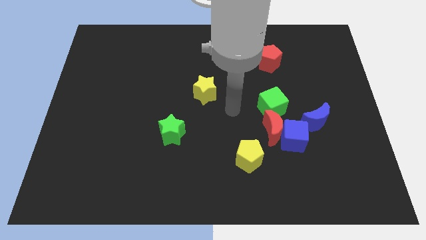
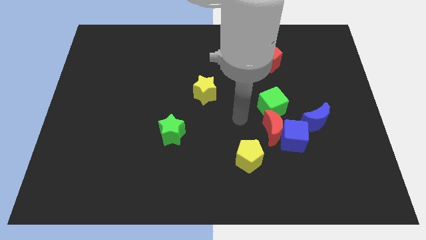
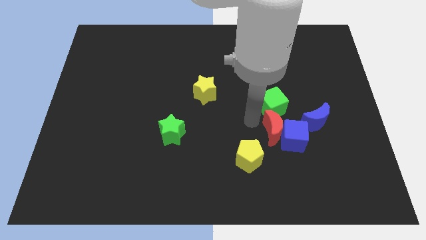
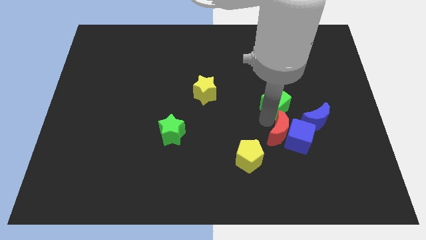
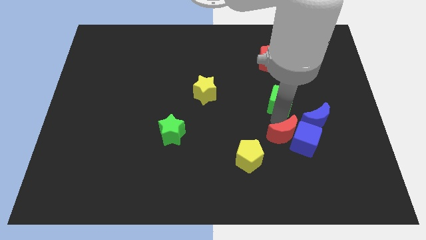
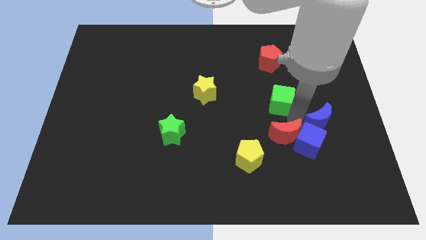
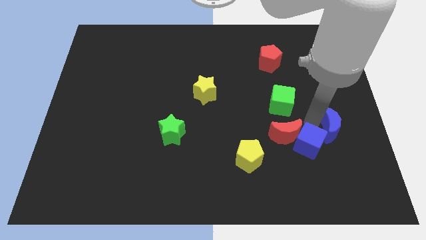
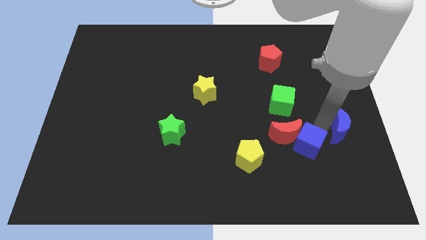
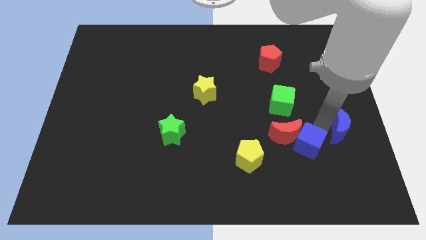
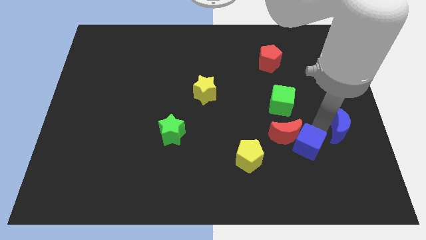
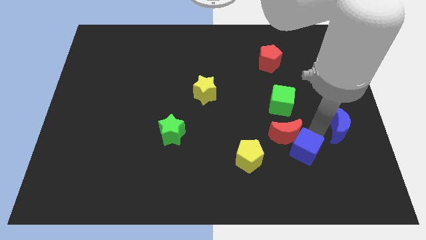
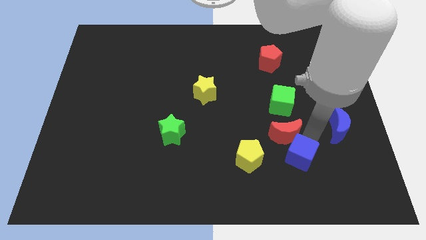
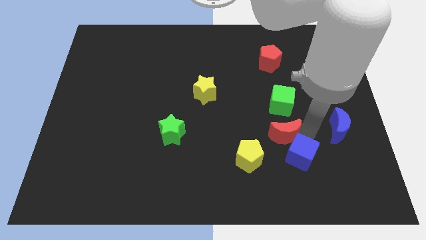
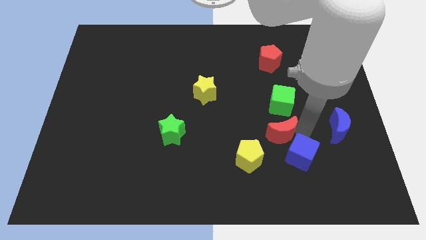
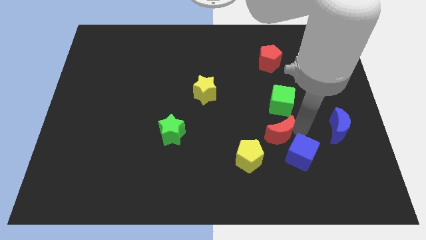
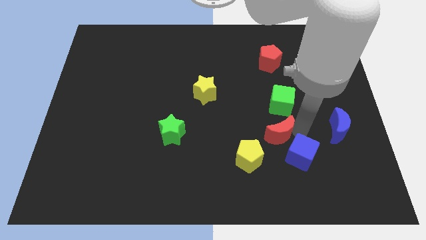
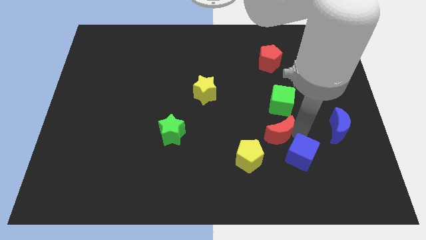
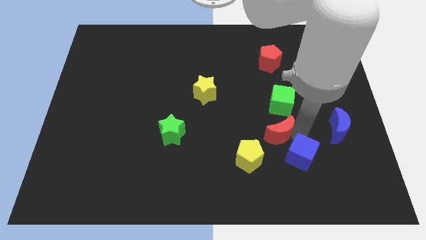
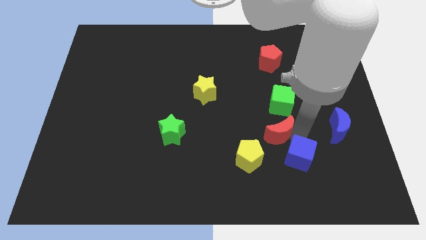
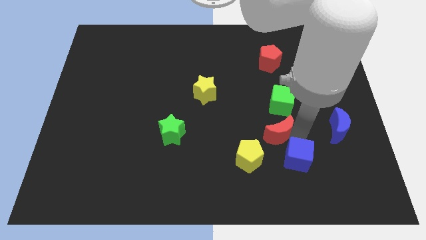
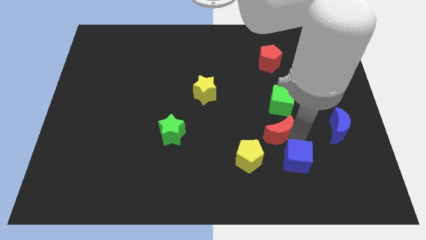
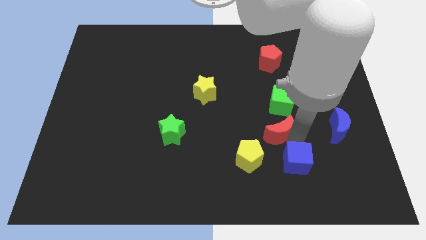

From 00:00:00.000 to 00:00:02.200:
pull the blue cube apart from the red moon, blue moon, and green cube

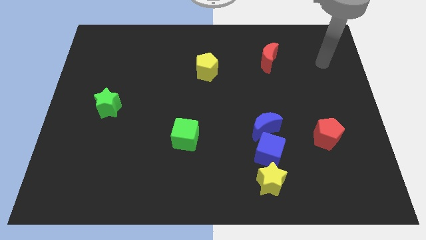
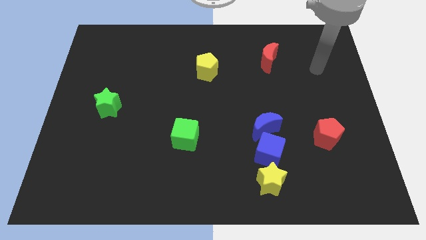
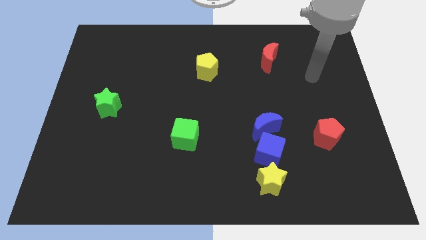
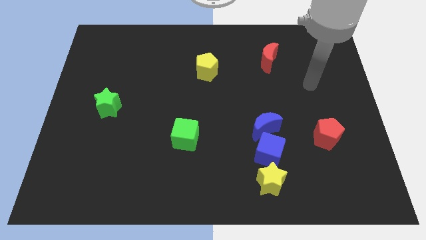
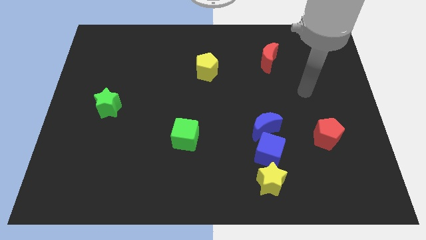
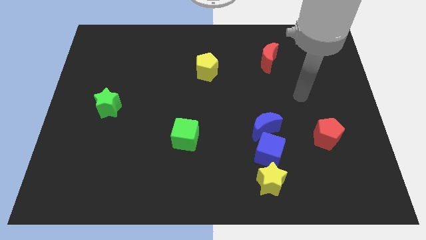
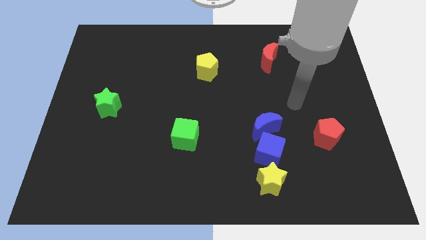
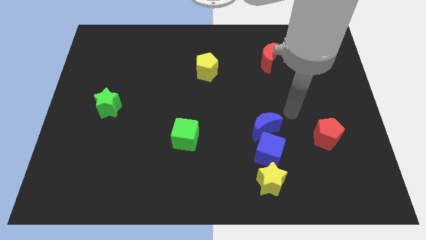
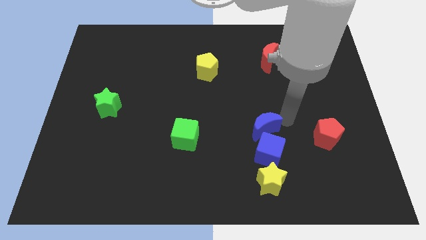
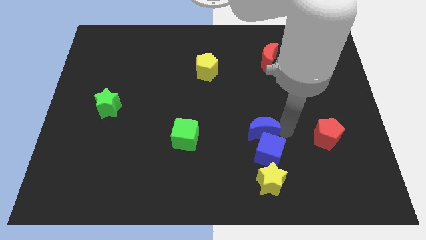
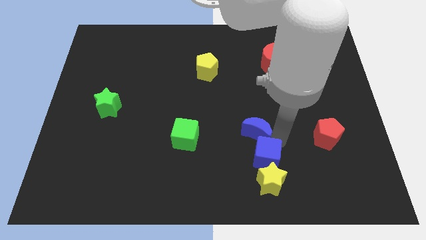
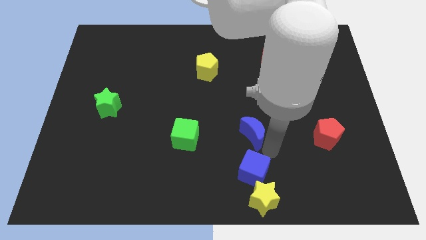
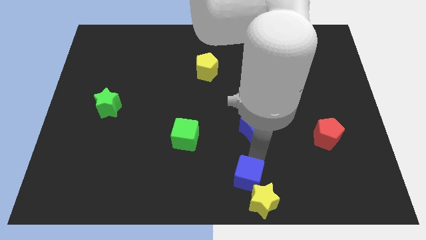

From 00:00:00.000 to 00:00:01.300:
separate the blue moon from the blue cube

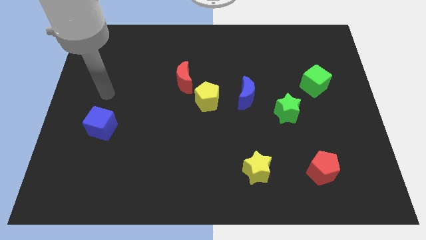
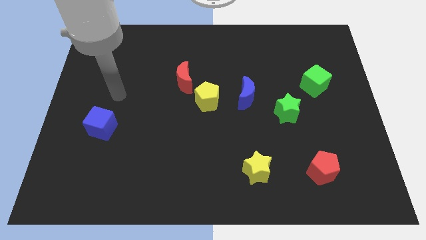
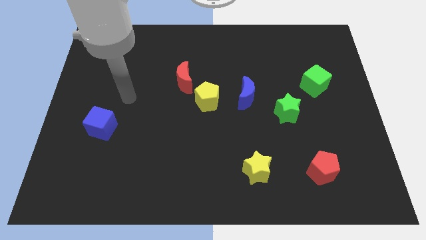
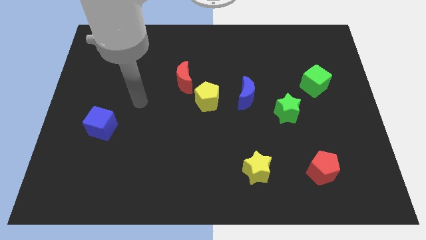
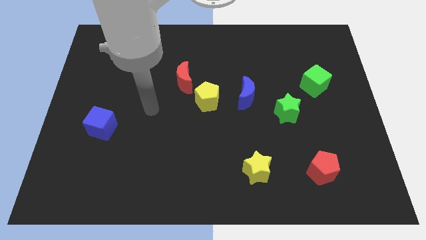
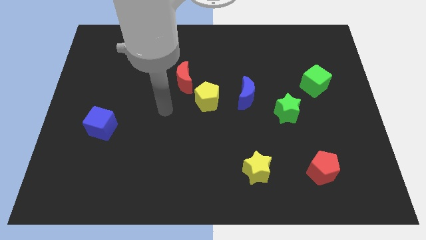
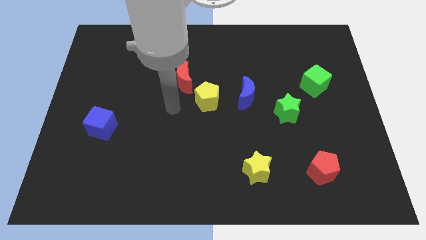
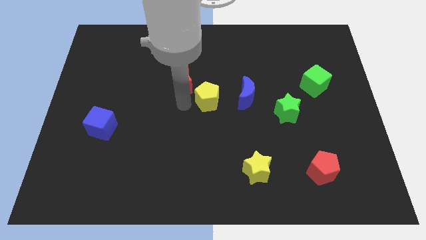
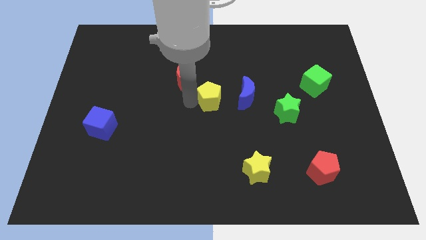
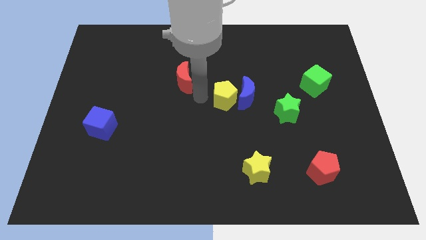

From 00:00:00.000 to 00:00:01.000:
separate the red moon from the yellow pentagon

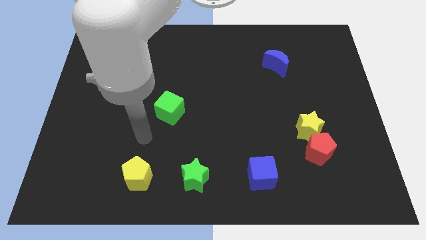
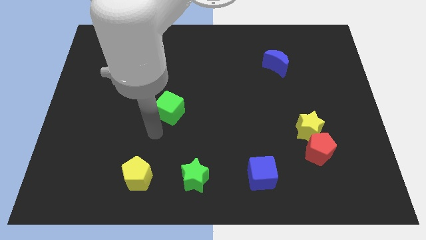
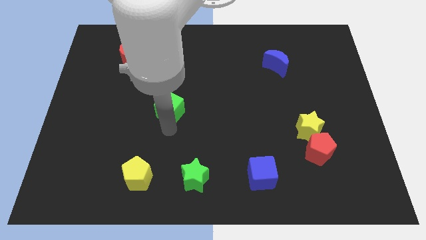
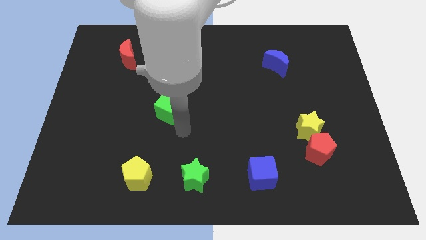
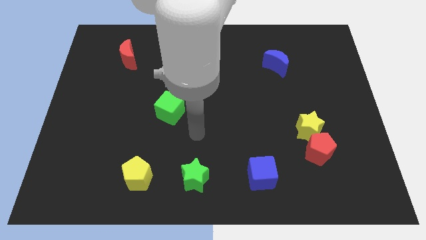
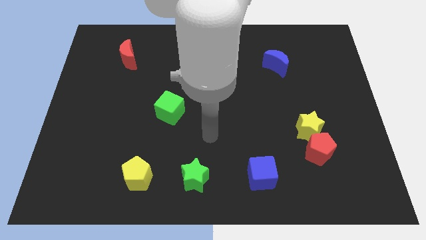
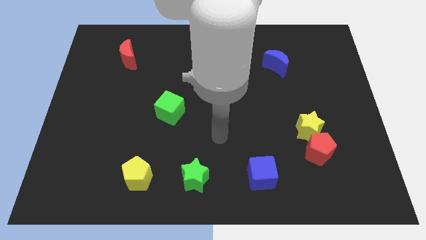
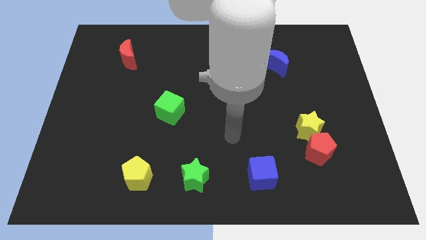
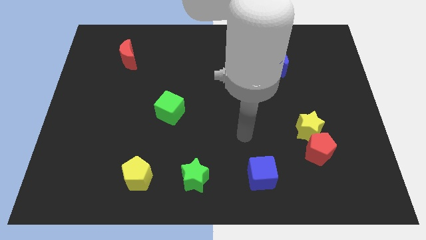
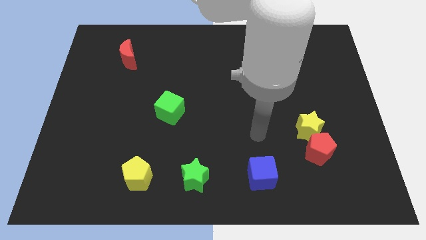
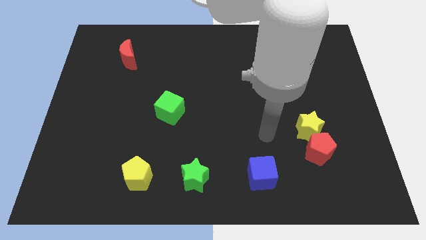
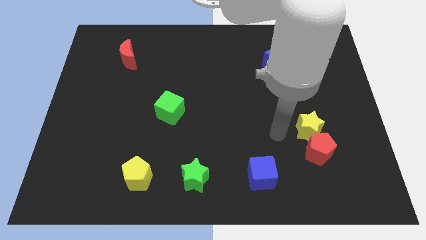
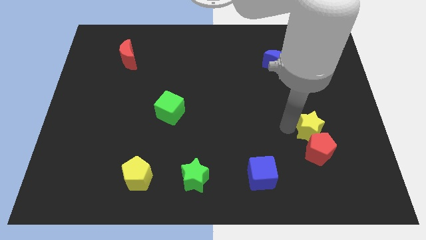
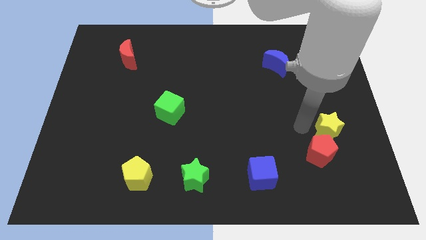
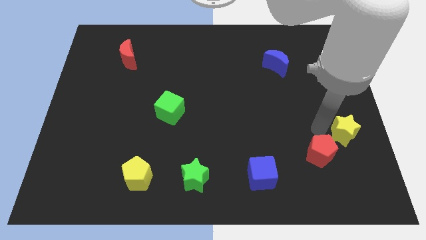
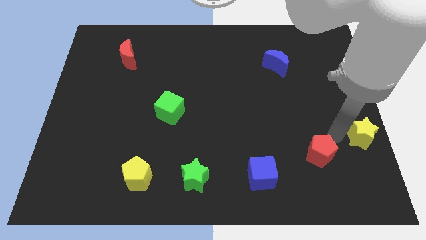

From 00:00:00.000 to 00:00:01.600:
pull the red pentagon apart from the yellow star

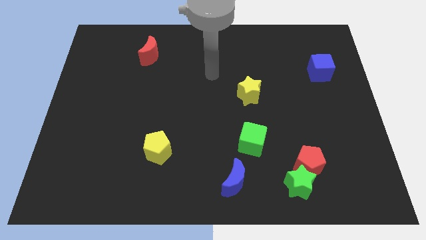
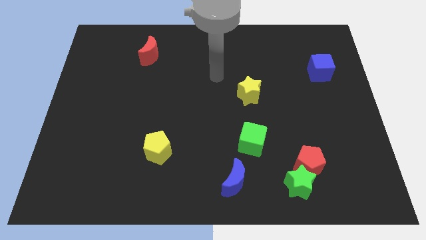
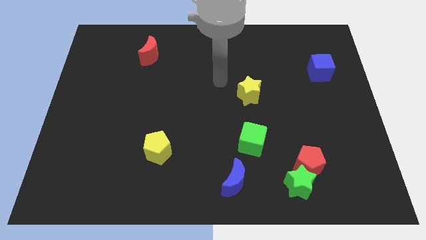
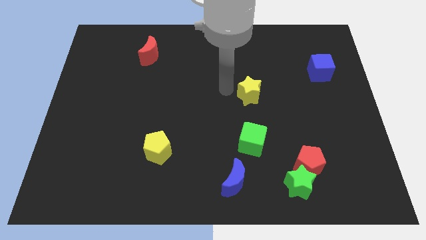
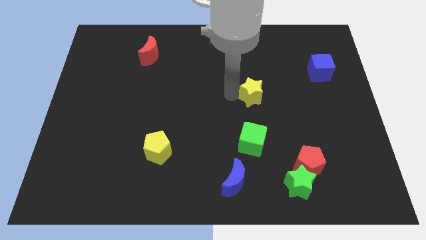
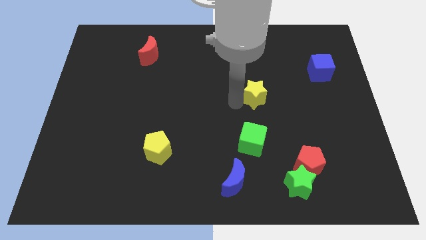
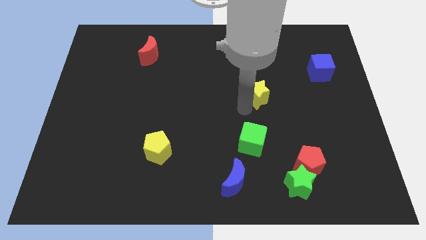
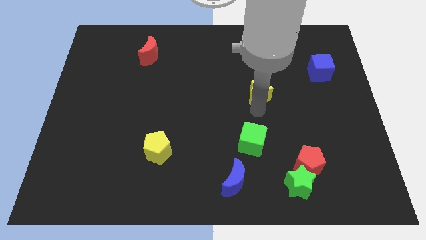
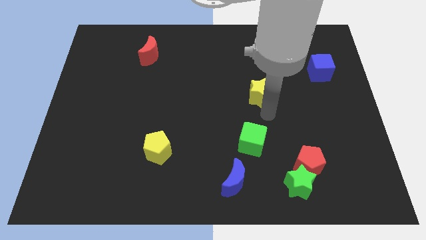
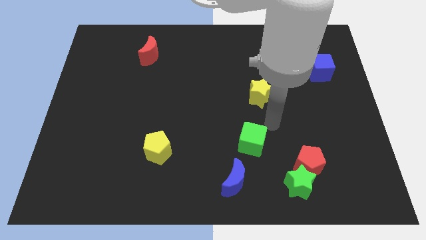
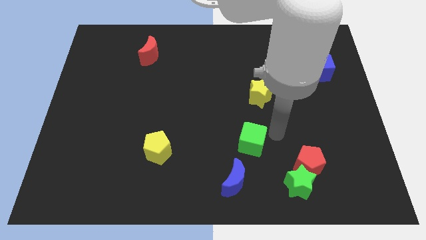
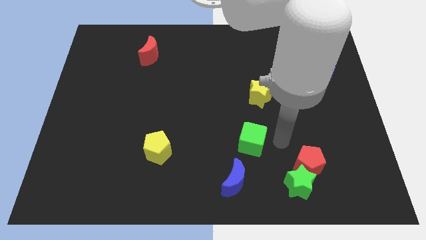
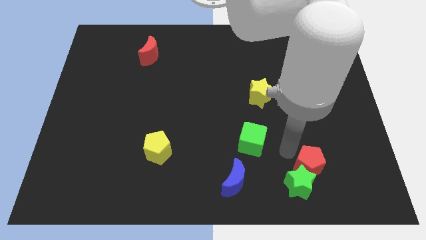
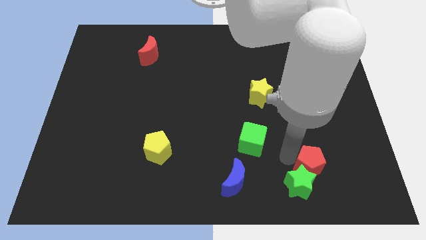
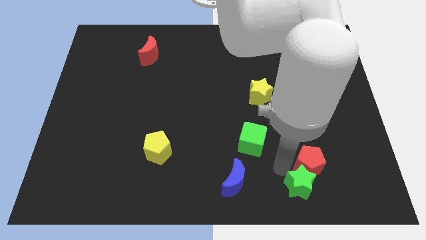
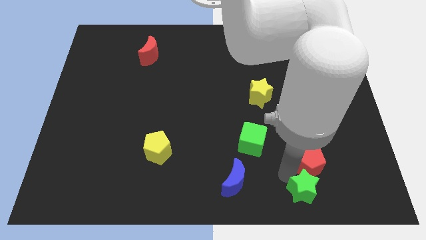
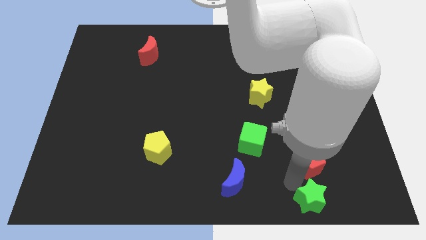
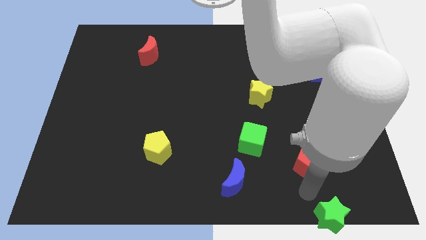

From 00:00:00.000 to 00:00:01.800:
pull the red pentagon apart from the green star

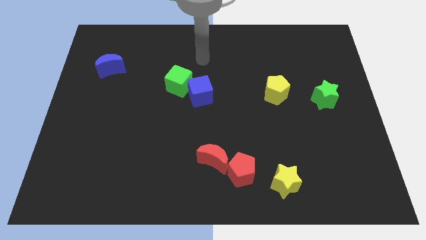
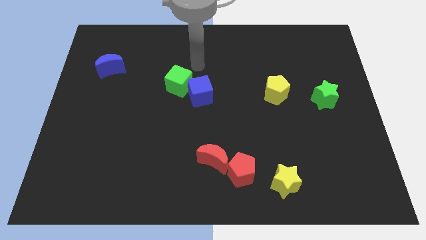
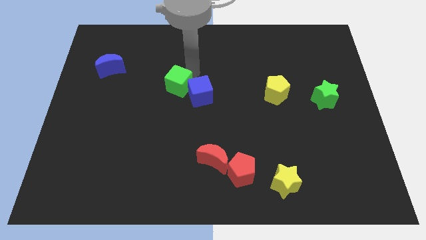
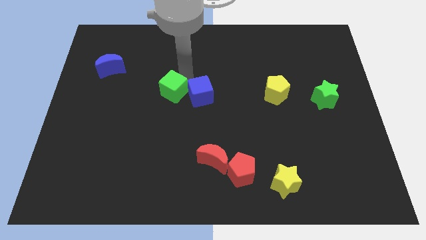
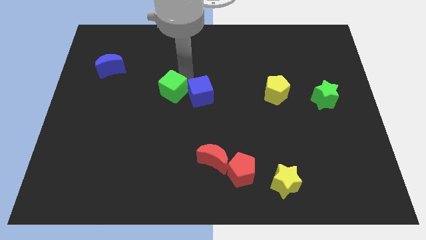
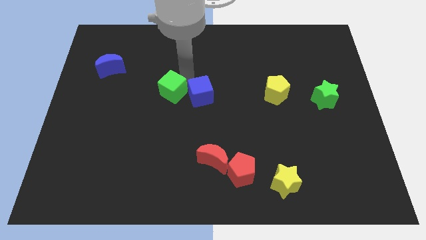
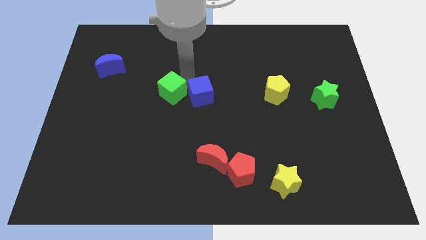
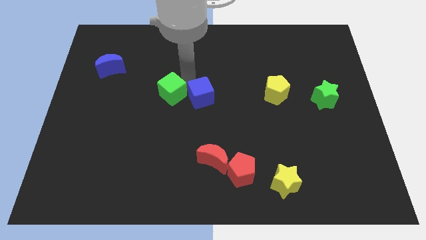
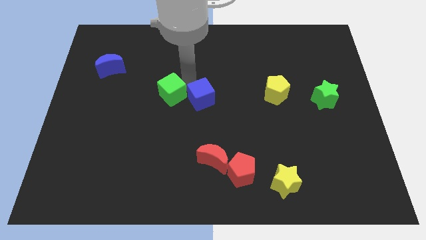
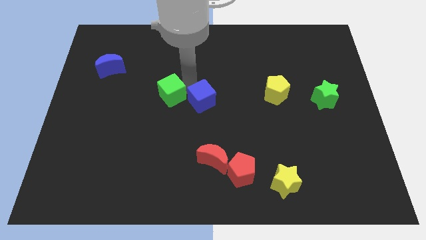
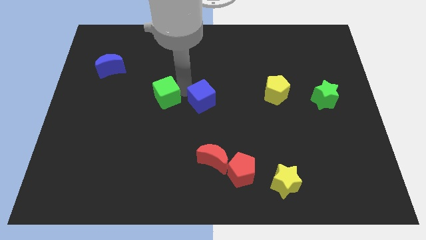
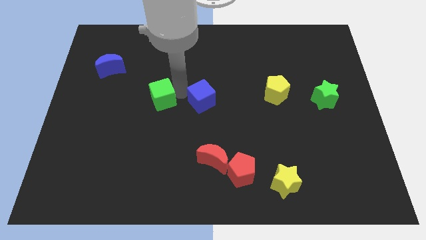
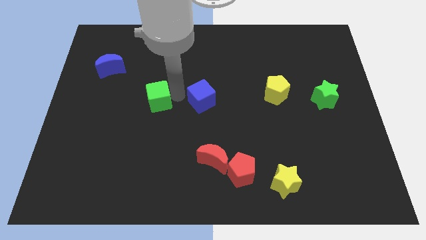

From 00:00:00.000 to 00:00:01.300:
move the blue cube away from the green cube

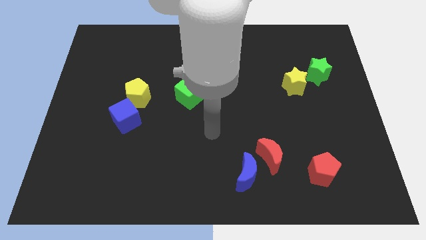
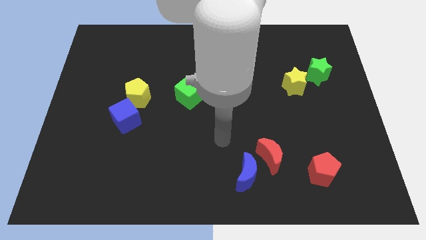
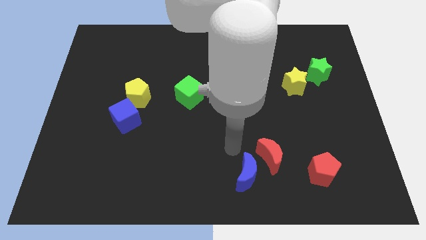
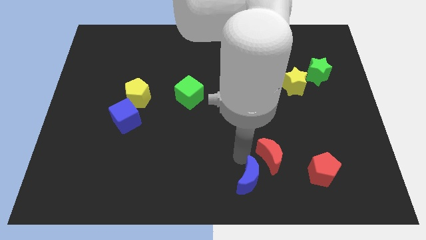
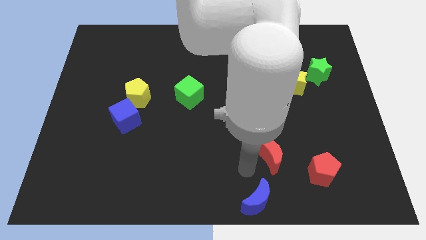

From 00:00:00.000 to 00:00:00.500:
move the red moon away from the blue moon
